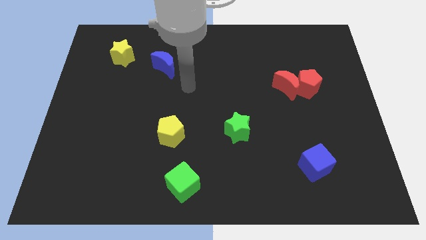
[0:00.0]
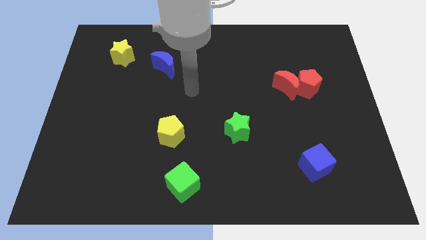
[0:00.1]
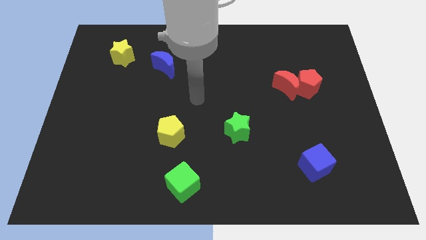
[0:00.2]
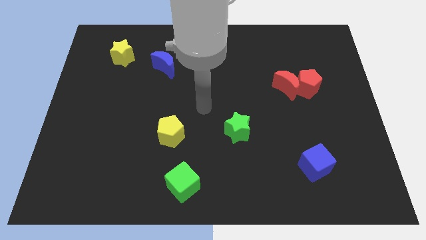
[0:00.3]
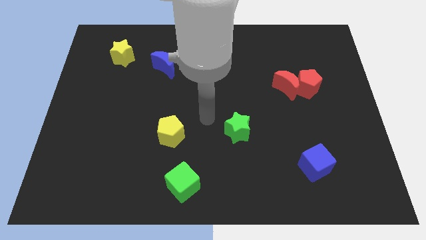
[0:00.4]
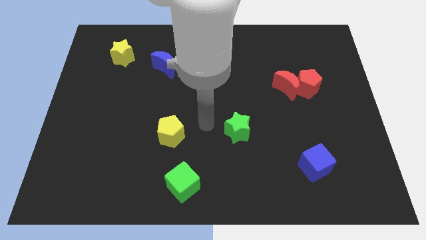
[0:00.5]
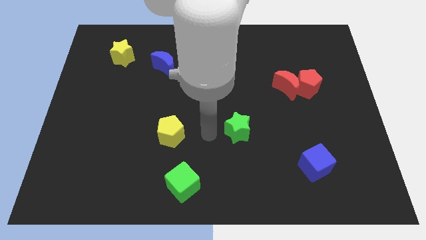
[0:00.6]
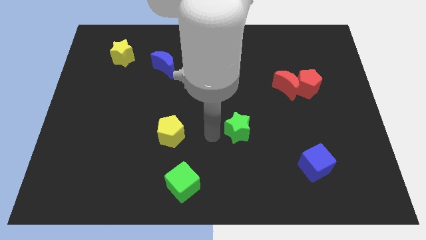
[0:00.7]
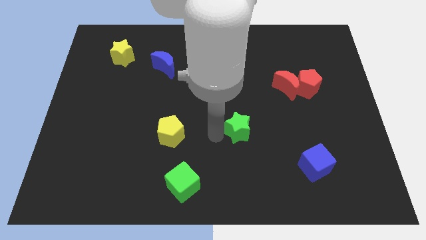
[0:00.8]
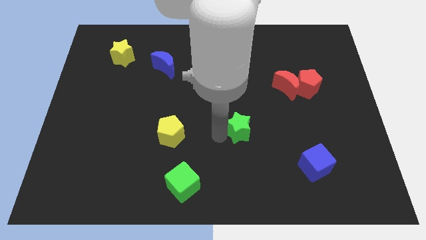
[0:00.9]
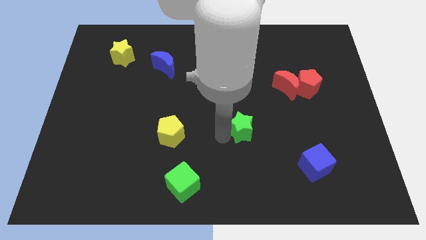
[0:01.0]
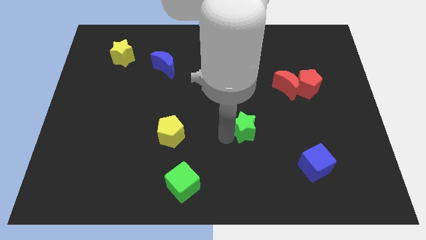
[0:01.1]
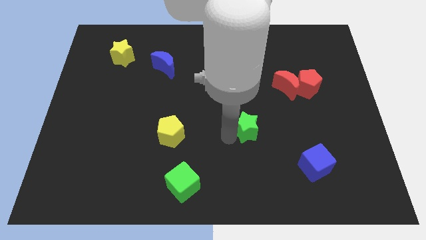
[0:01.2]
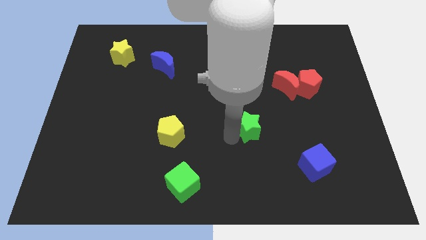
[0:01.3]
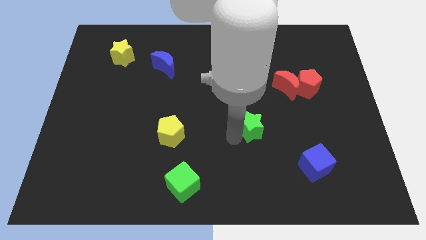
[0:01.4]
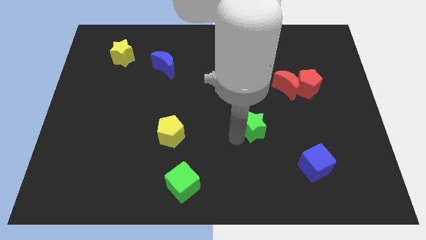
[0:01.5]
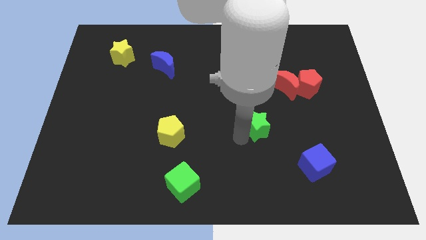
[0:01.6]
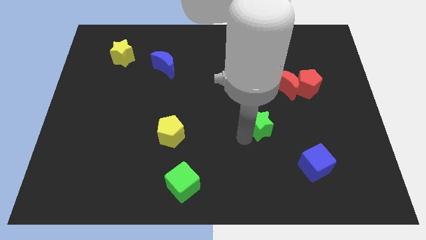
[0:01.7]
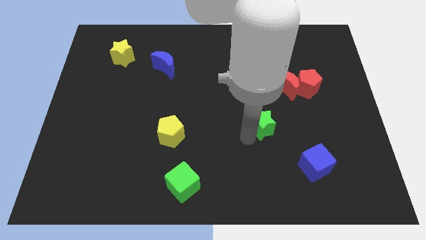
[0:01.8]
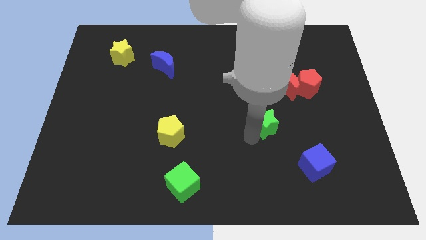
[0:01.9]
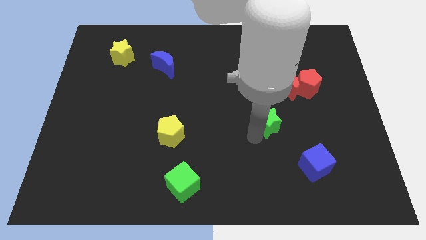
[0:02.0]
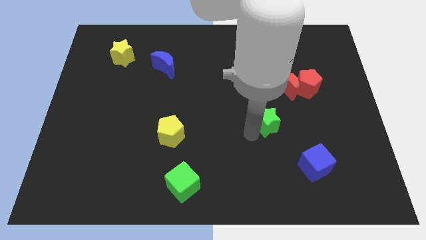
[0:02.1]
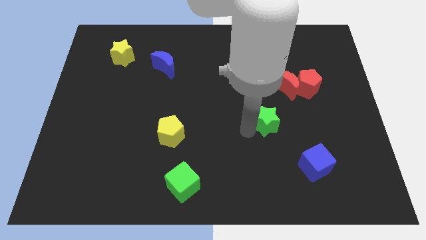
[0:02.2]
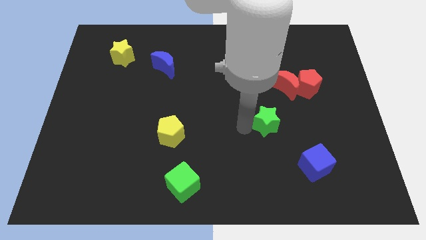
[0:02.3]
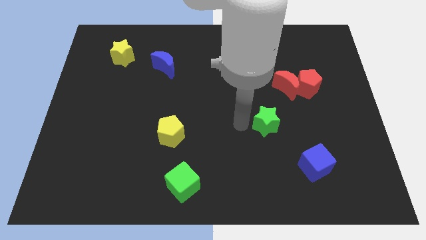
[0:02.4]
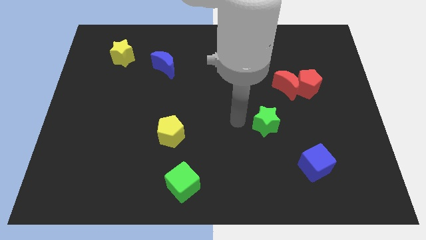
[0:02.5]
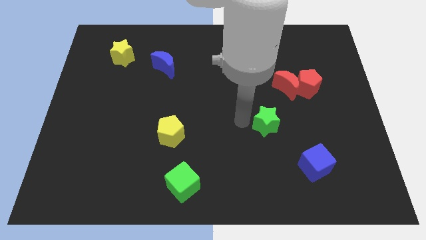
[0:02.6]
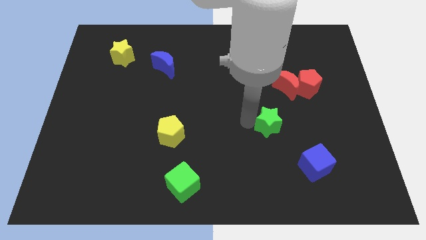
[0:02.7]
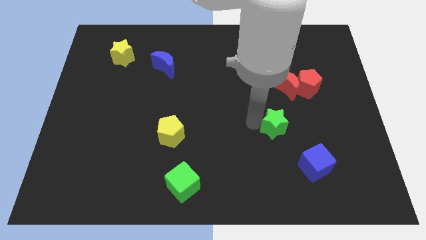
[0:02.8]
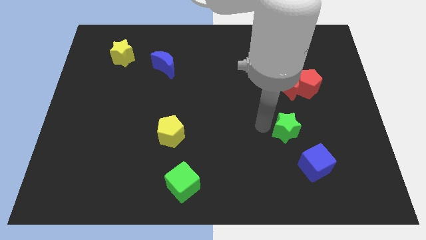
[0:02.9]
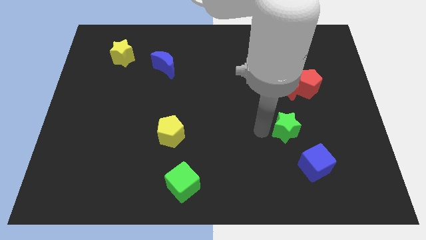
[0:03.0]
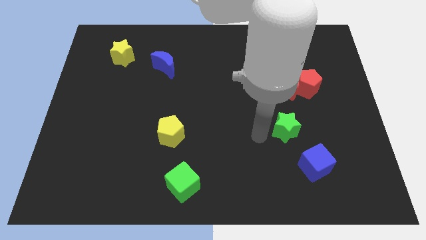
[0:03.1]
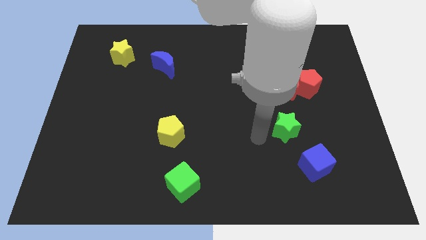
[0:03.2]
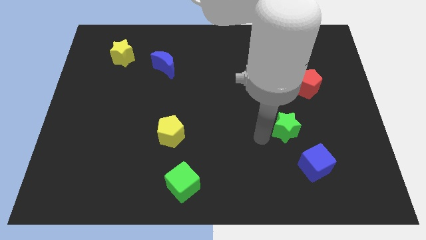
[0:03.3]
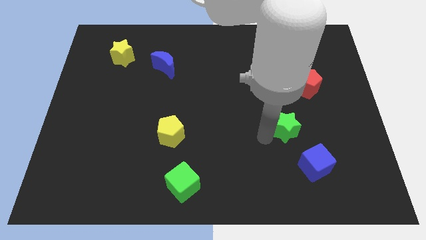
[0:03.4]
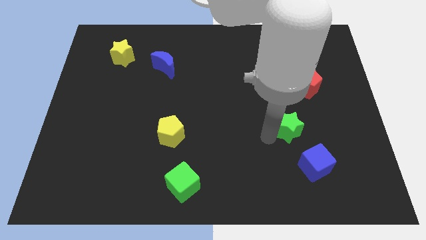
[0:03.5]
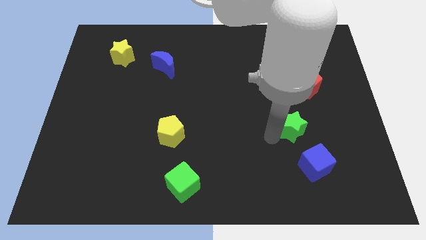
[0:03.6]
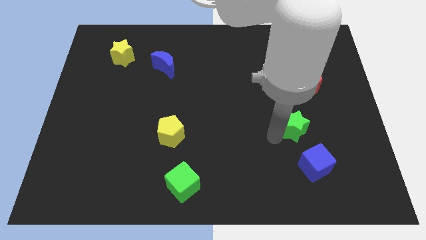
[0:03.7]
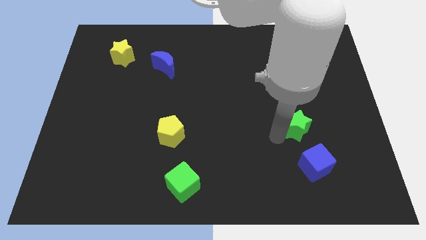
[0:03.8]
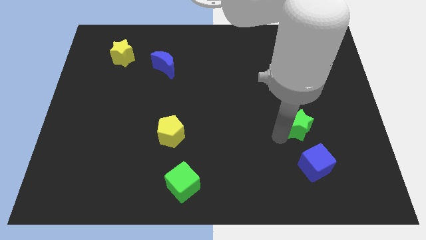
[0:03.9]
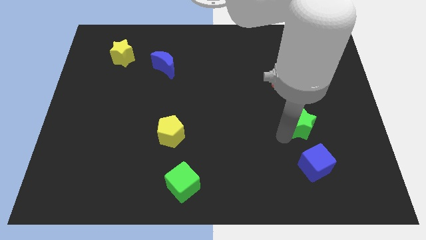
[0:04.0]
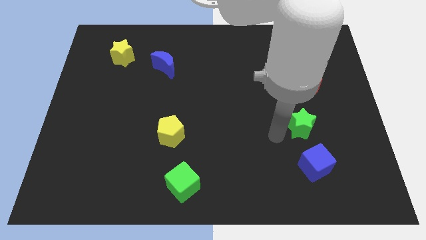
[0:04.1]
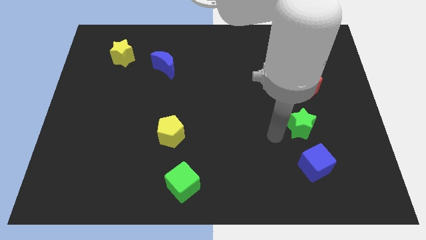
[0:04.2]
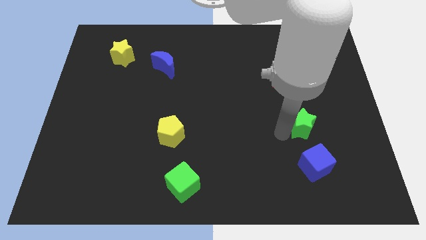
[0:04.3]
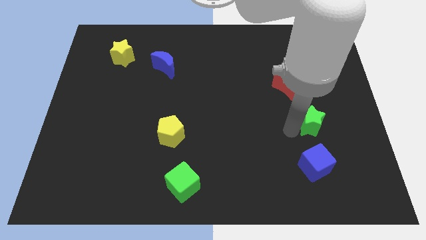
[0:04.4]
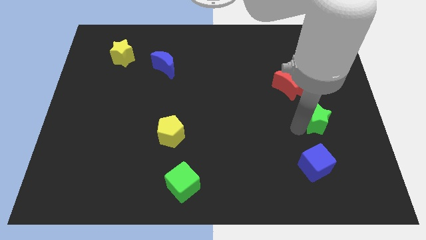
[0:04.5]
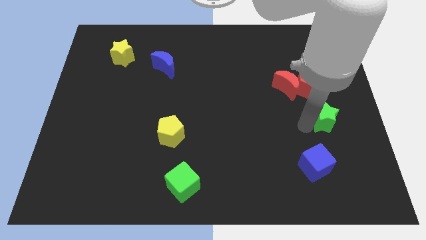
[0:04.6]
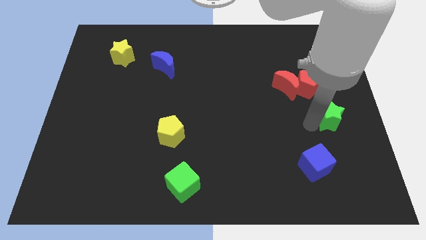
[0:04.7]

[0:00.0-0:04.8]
move the green star to the right side

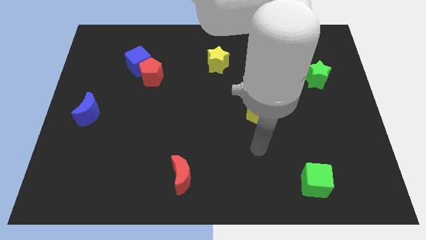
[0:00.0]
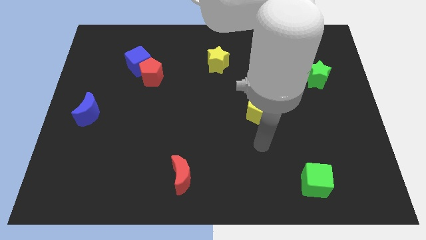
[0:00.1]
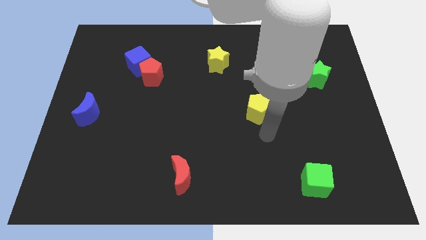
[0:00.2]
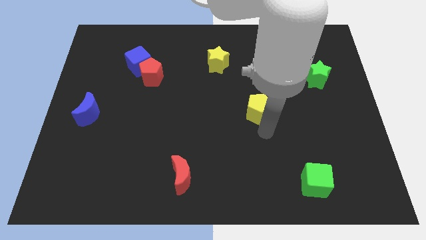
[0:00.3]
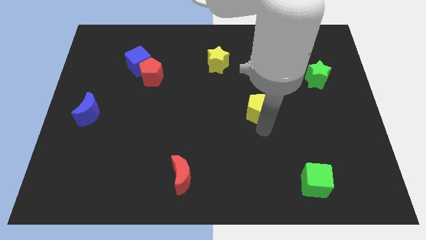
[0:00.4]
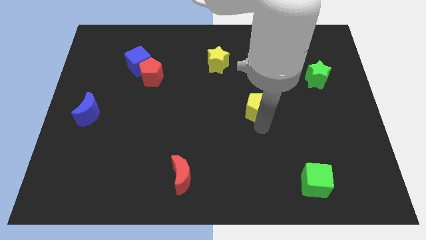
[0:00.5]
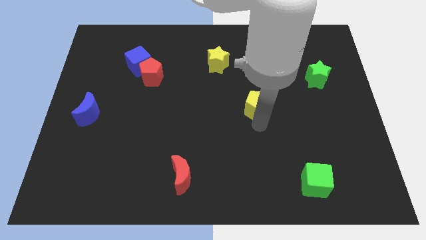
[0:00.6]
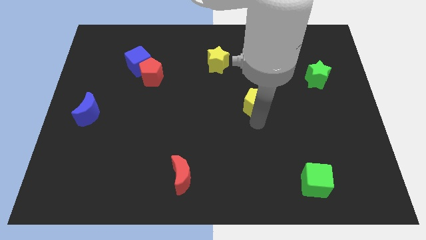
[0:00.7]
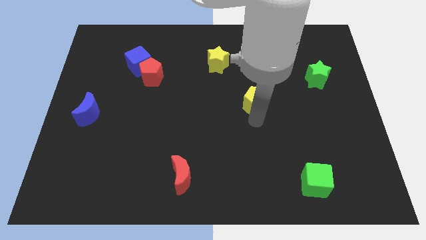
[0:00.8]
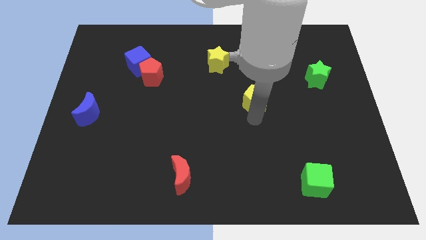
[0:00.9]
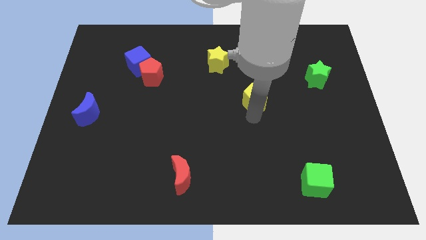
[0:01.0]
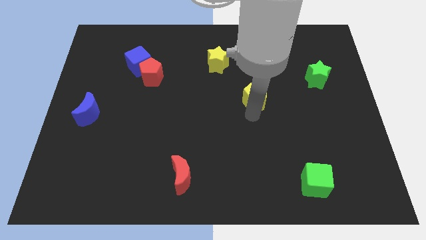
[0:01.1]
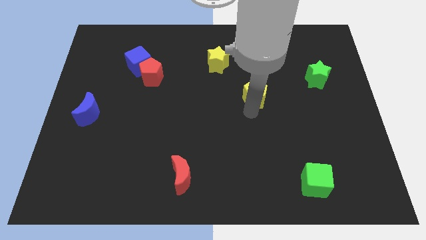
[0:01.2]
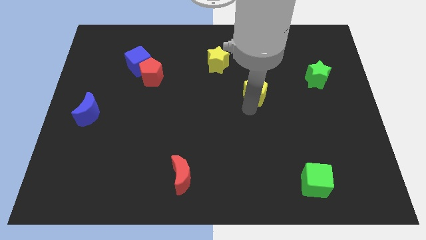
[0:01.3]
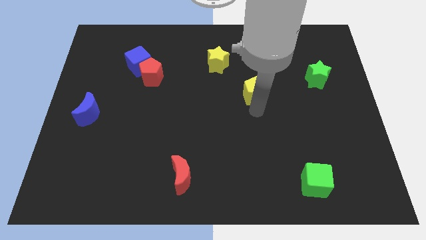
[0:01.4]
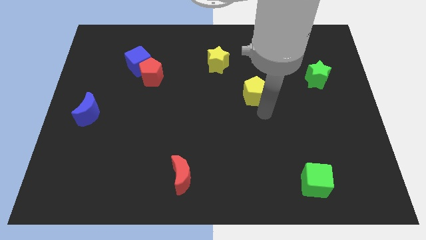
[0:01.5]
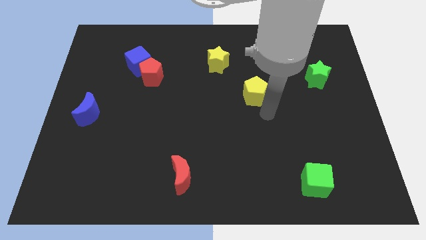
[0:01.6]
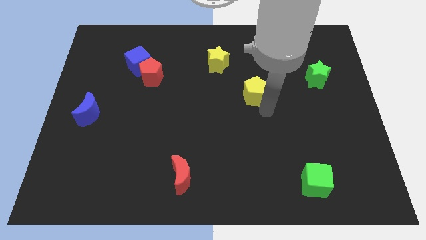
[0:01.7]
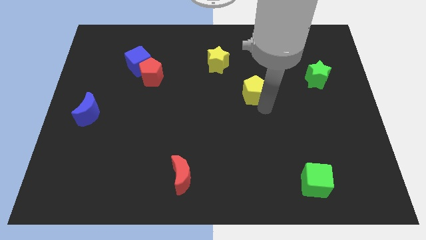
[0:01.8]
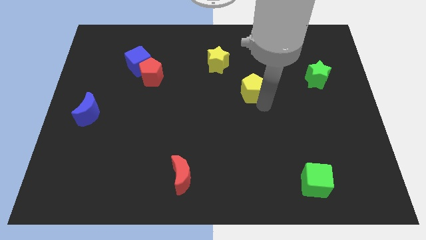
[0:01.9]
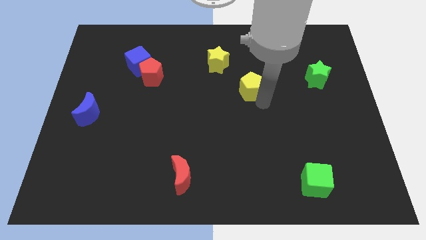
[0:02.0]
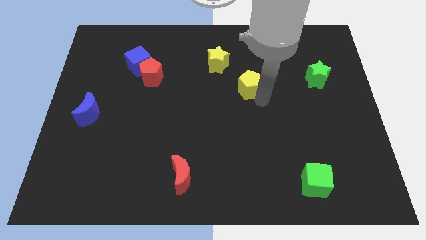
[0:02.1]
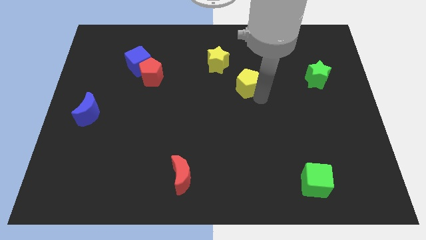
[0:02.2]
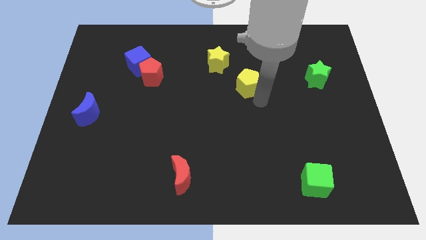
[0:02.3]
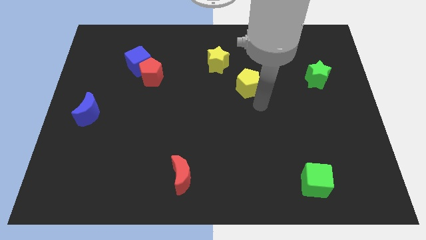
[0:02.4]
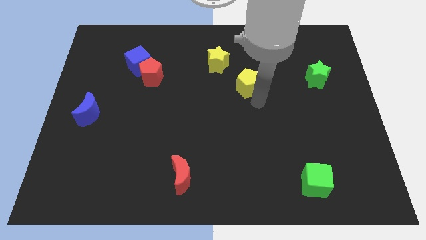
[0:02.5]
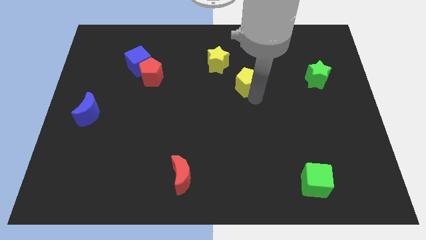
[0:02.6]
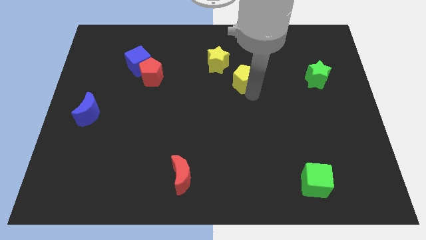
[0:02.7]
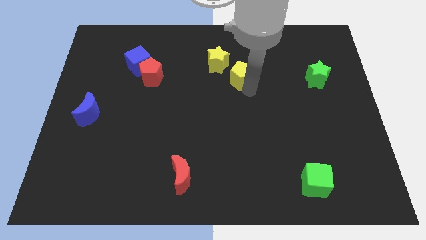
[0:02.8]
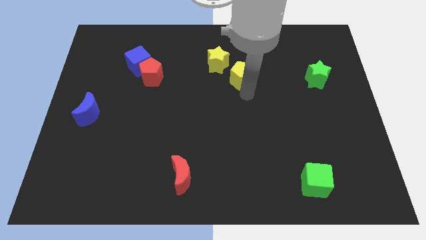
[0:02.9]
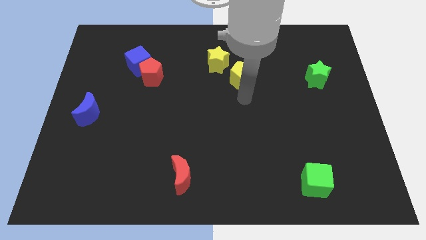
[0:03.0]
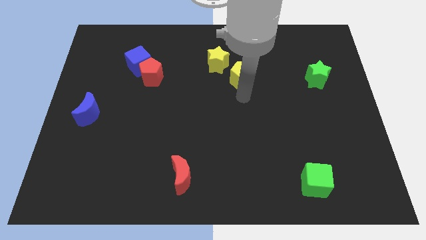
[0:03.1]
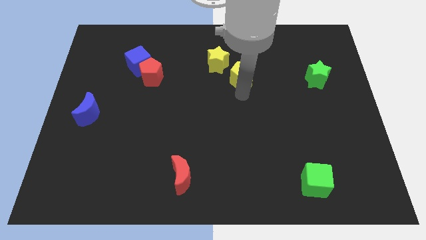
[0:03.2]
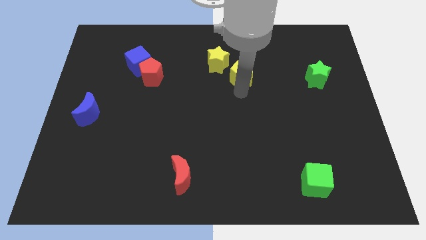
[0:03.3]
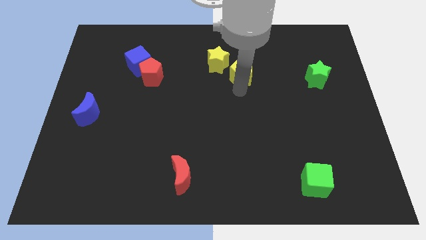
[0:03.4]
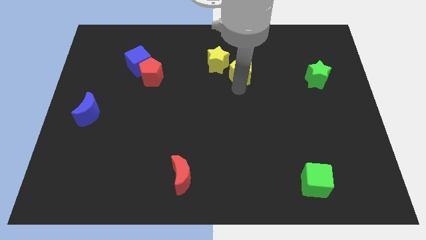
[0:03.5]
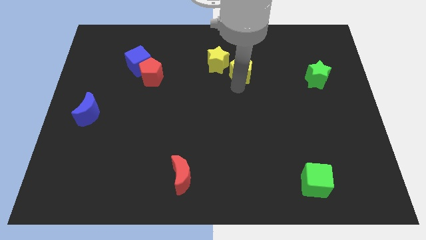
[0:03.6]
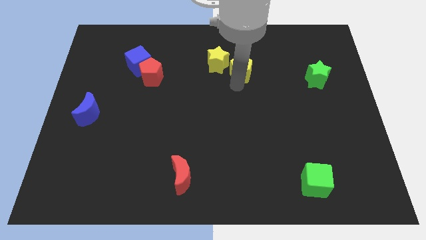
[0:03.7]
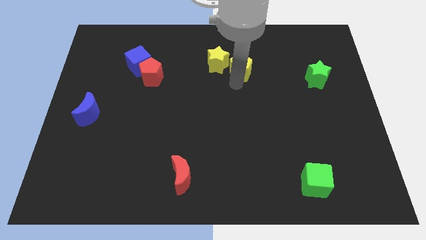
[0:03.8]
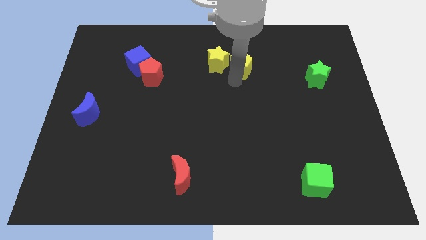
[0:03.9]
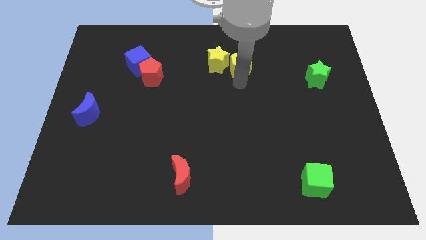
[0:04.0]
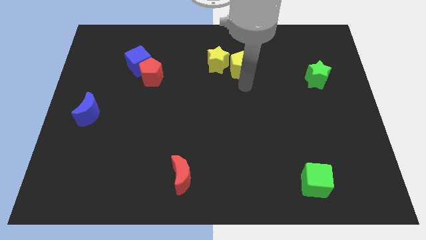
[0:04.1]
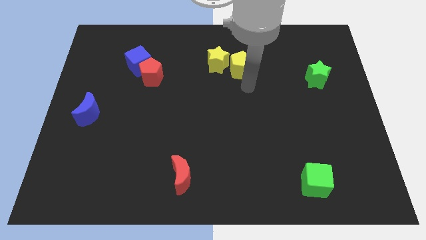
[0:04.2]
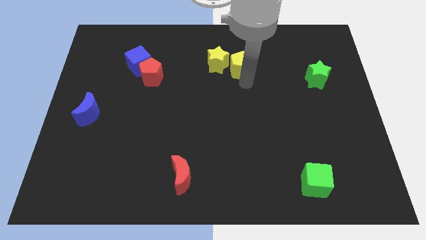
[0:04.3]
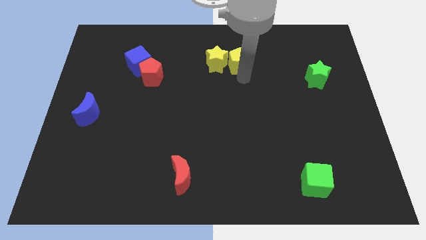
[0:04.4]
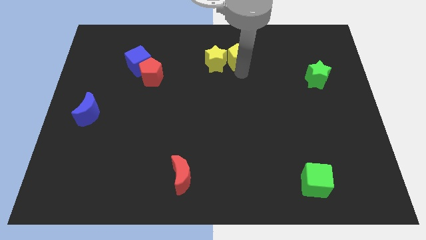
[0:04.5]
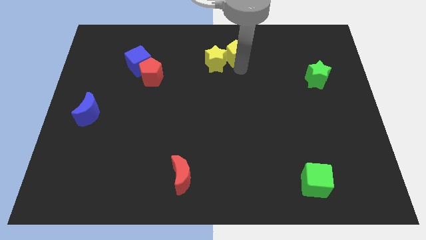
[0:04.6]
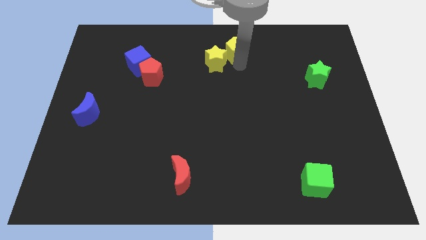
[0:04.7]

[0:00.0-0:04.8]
slide the yellow pentagon to the towards your base
